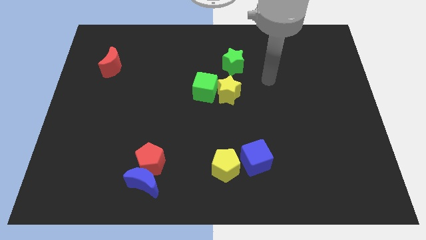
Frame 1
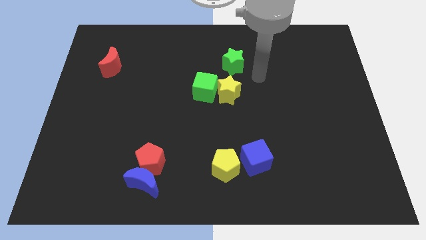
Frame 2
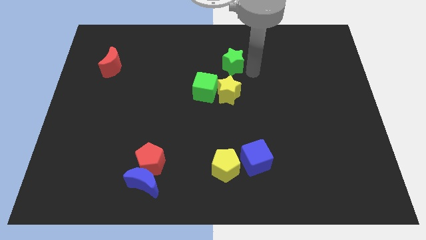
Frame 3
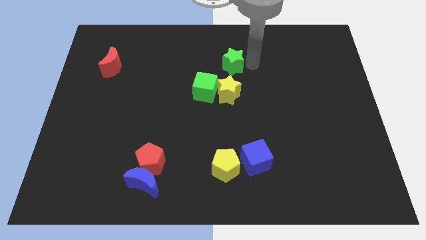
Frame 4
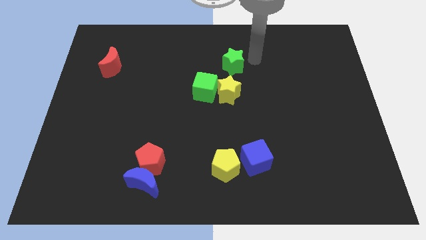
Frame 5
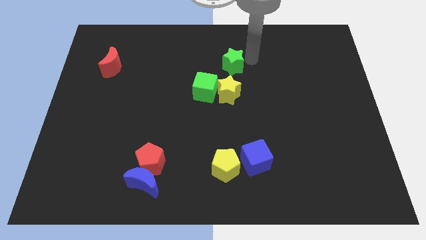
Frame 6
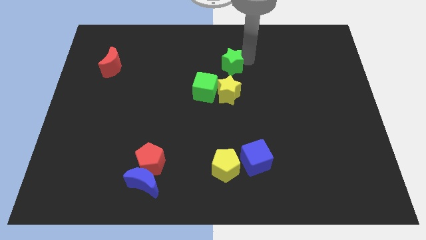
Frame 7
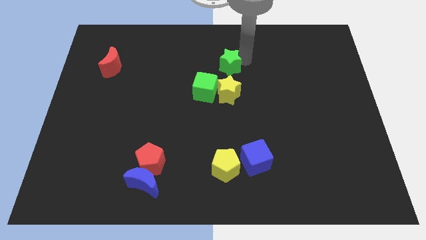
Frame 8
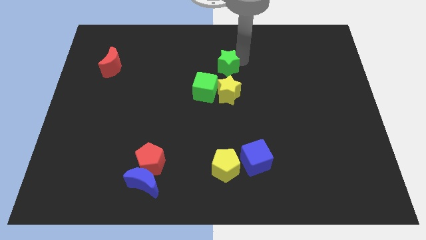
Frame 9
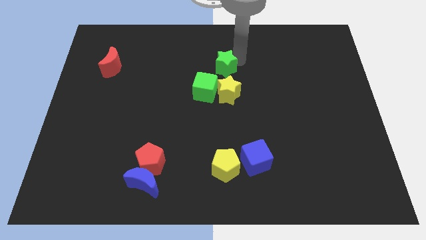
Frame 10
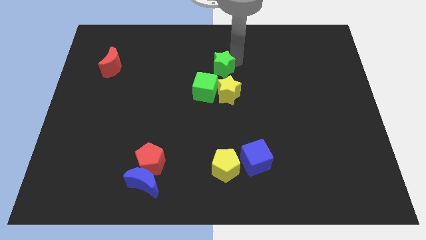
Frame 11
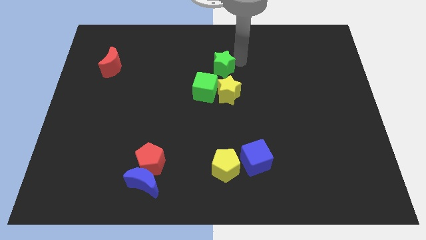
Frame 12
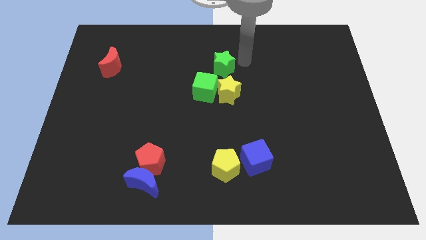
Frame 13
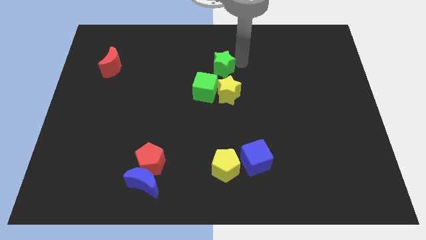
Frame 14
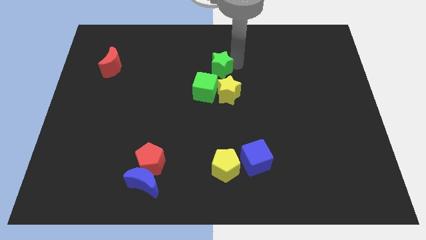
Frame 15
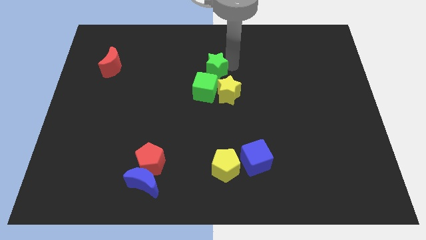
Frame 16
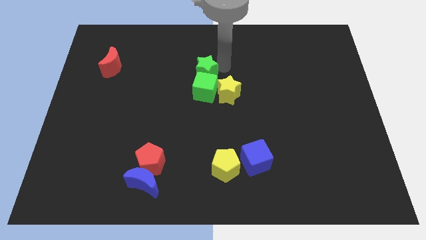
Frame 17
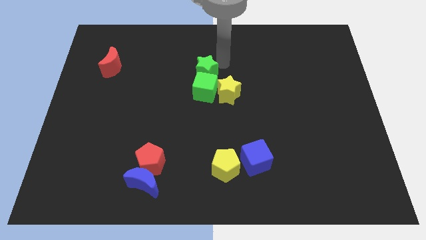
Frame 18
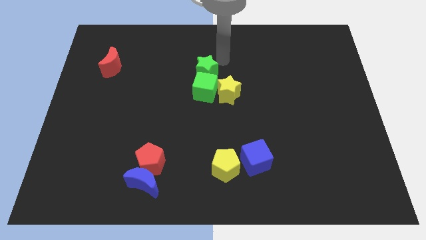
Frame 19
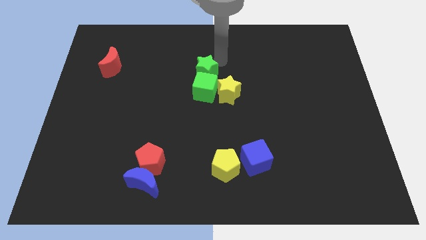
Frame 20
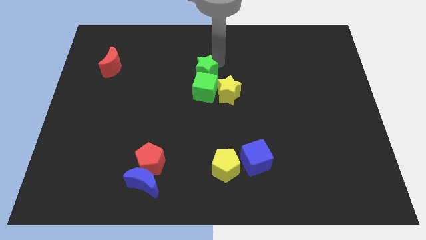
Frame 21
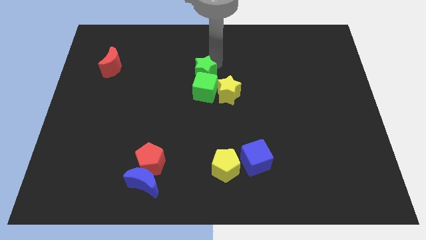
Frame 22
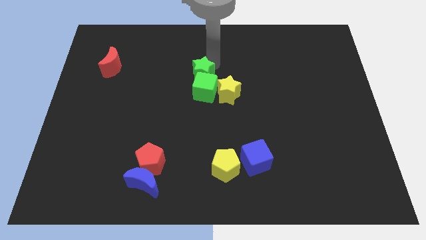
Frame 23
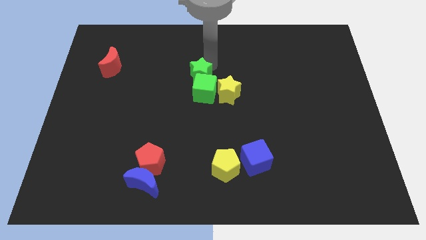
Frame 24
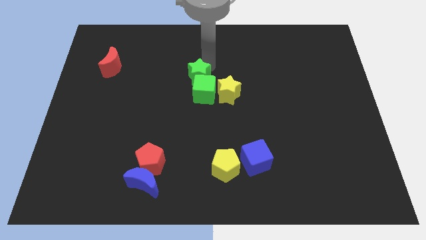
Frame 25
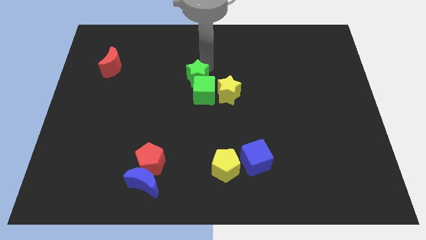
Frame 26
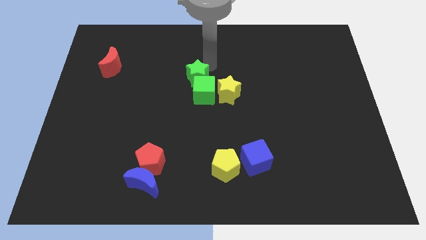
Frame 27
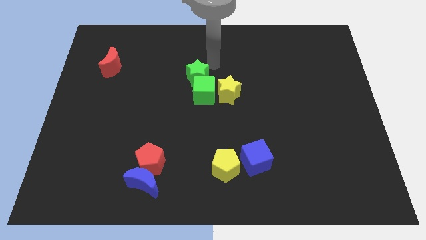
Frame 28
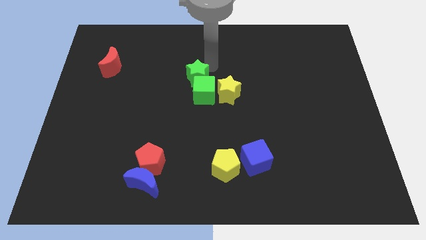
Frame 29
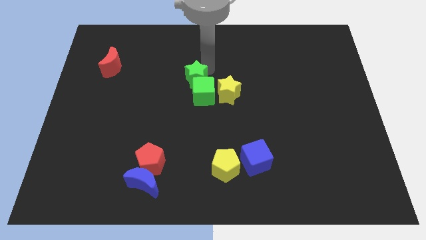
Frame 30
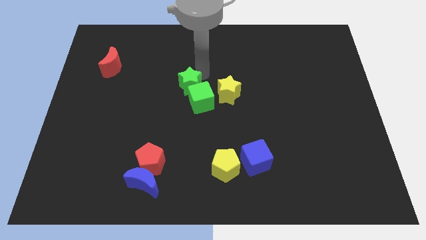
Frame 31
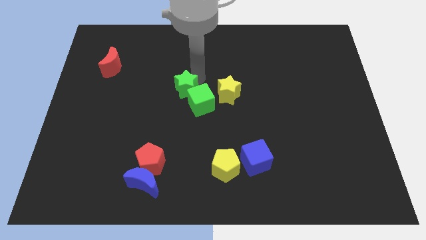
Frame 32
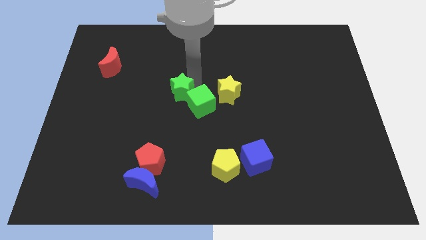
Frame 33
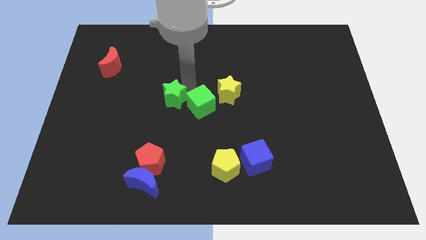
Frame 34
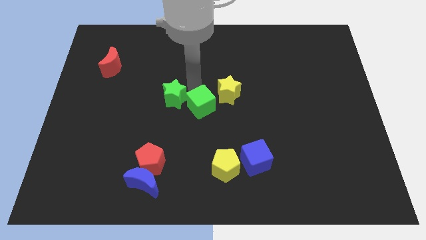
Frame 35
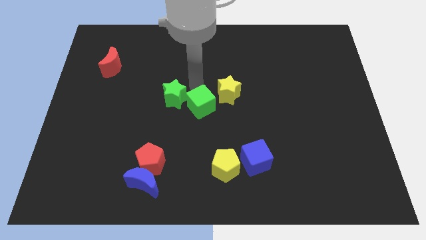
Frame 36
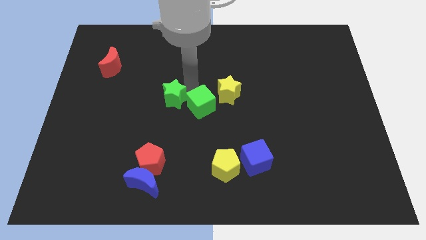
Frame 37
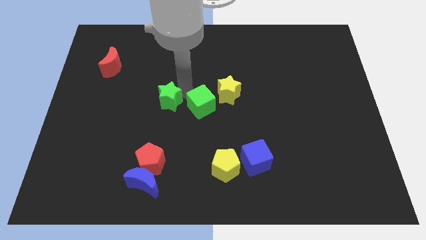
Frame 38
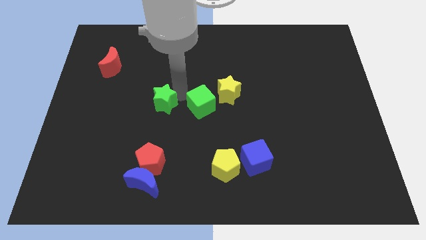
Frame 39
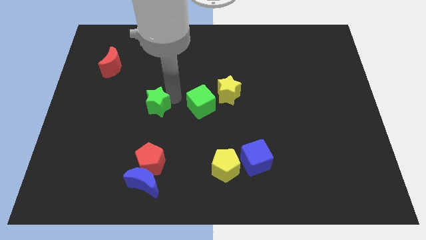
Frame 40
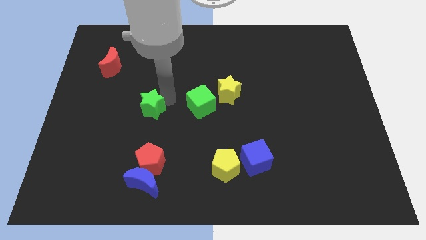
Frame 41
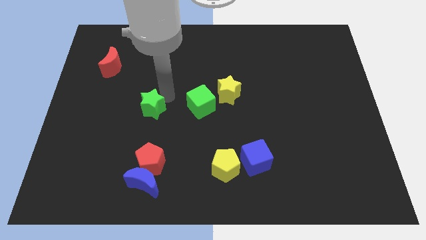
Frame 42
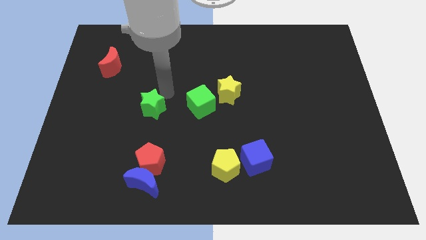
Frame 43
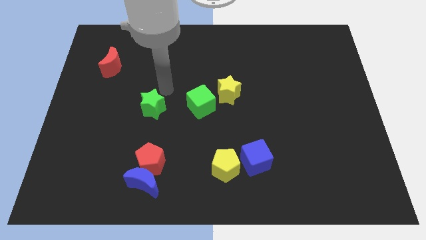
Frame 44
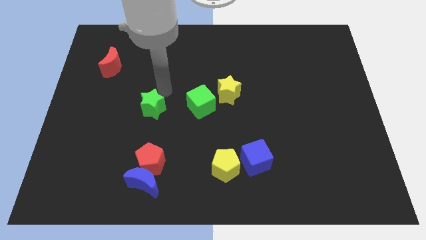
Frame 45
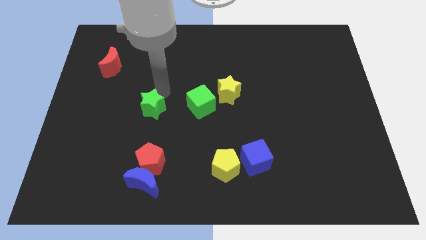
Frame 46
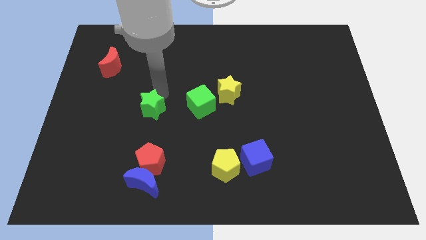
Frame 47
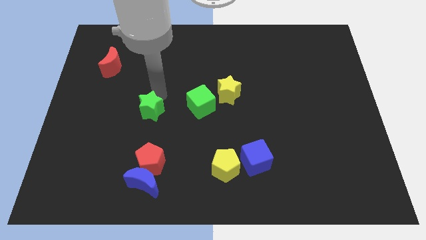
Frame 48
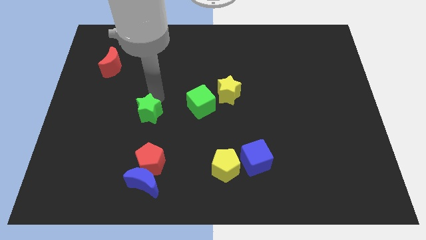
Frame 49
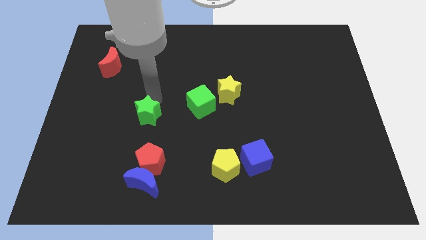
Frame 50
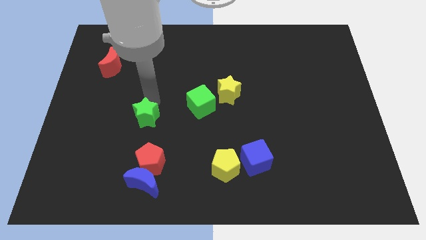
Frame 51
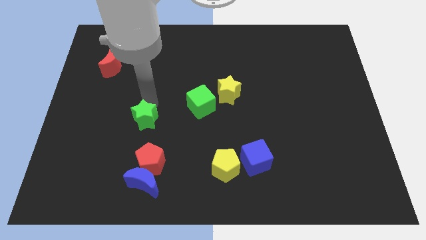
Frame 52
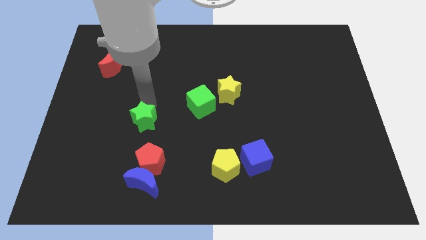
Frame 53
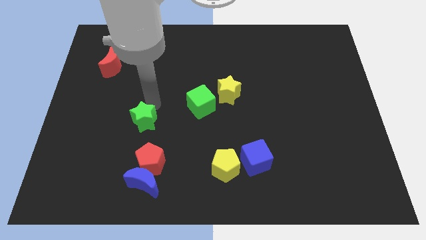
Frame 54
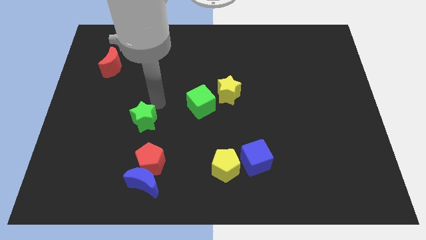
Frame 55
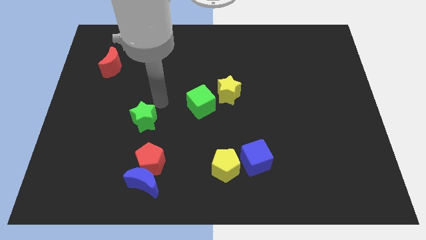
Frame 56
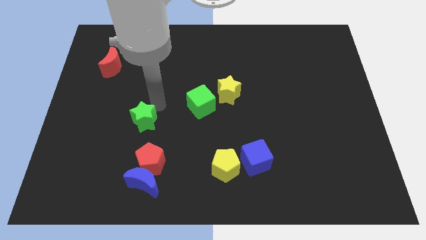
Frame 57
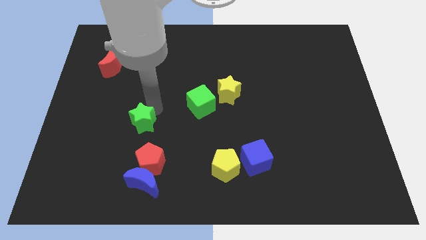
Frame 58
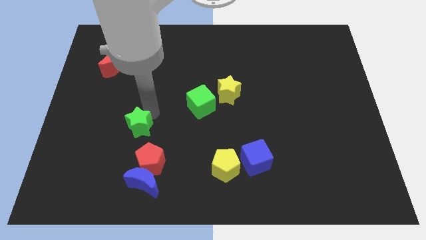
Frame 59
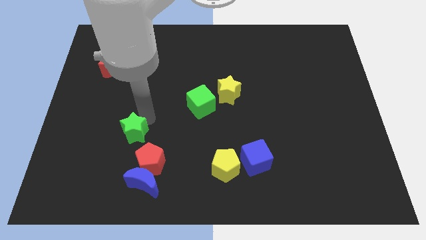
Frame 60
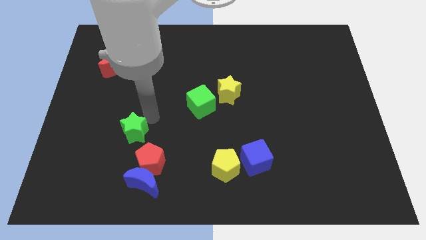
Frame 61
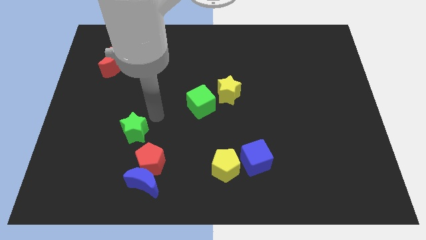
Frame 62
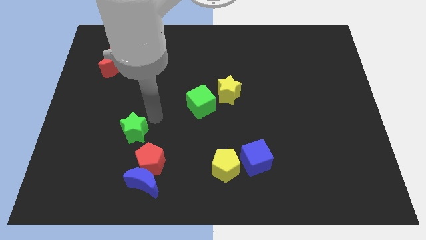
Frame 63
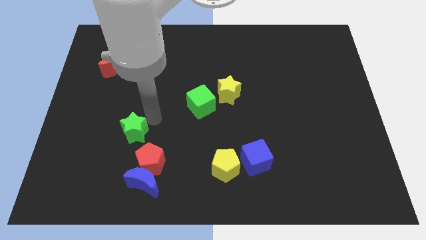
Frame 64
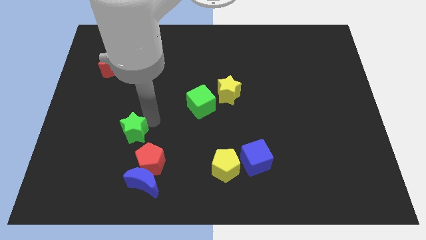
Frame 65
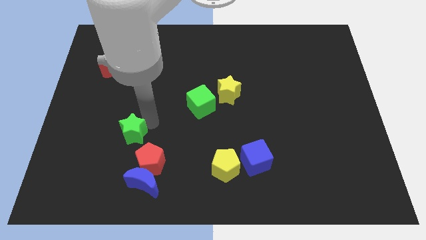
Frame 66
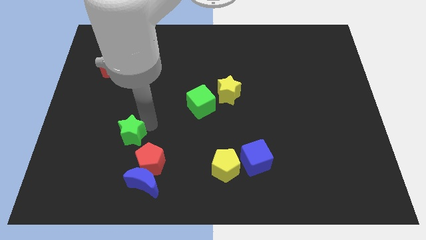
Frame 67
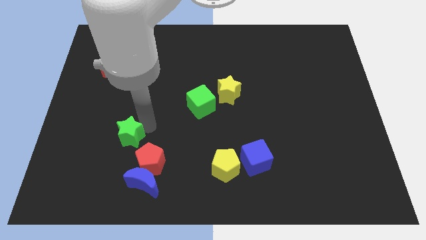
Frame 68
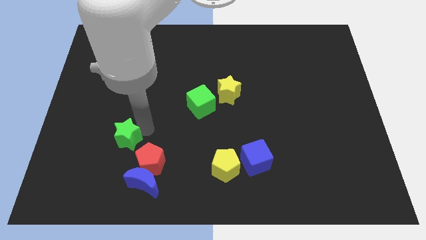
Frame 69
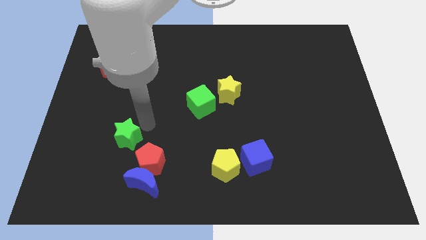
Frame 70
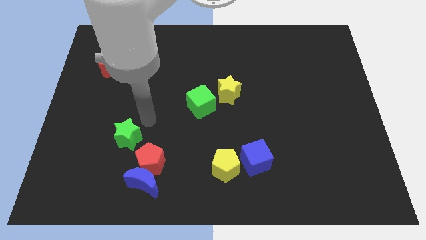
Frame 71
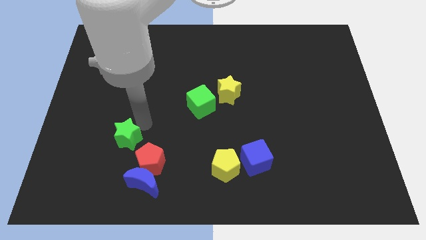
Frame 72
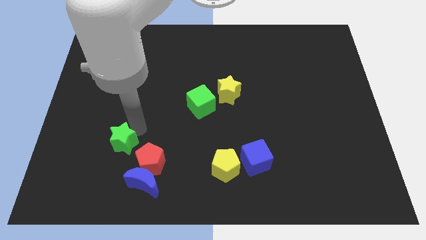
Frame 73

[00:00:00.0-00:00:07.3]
slide the green star to the left of the red pentagon
